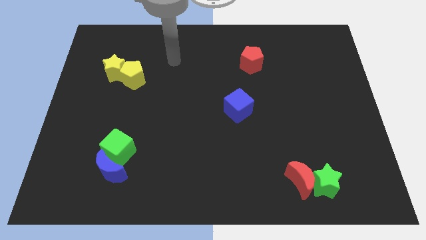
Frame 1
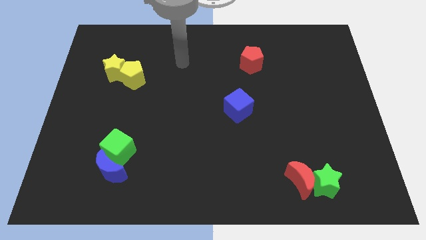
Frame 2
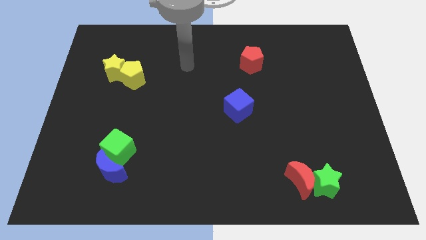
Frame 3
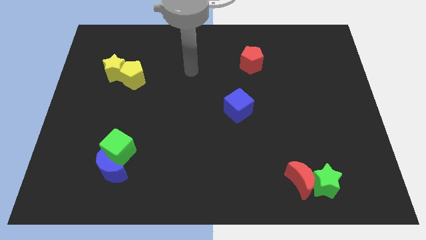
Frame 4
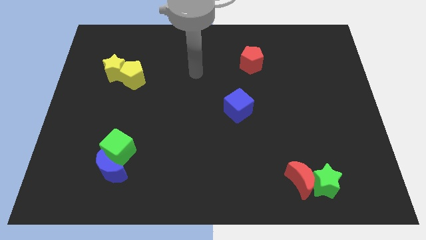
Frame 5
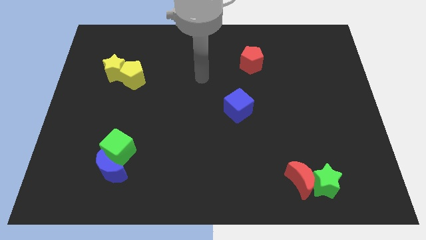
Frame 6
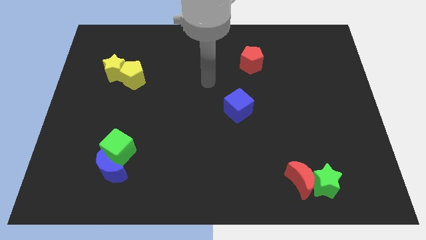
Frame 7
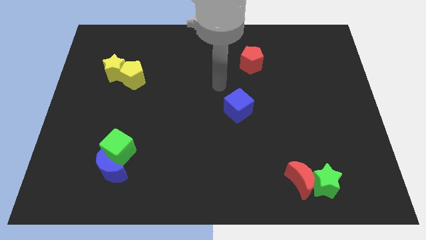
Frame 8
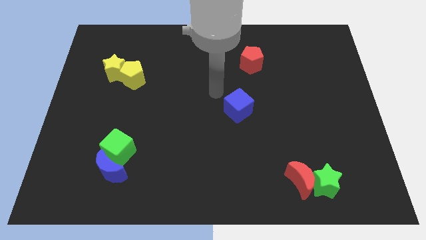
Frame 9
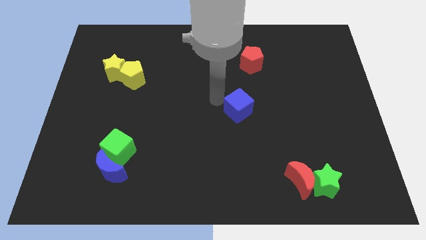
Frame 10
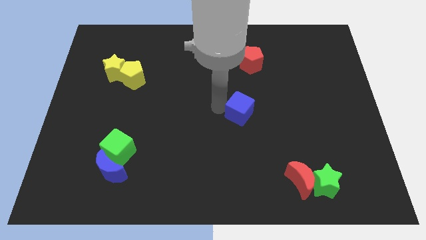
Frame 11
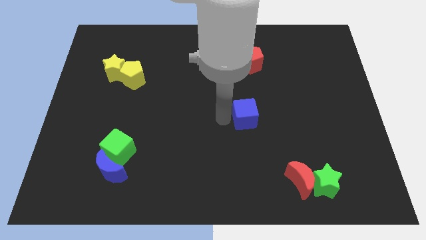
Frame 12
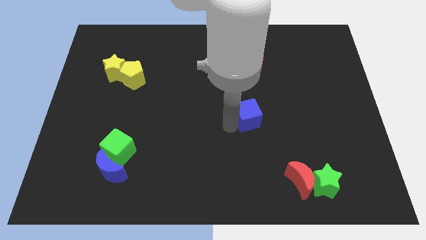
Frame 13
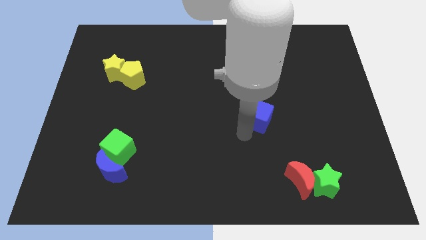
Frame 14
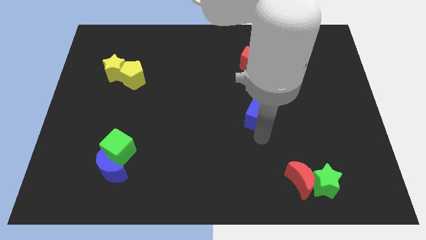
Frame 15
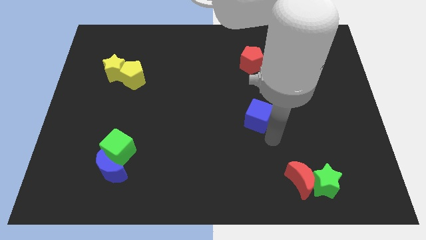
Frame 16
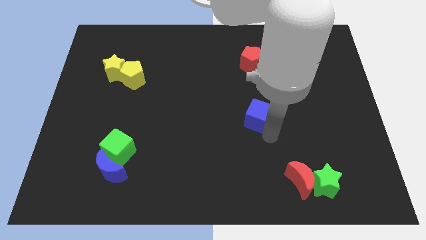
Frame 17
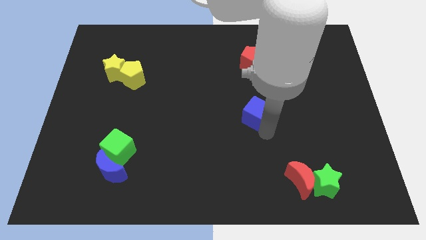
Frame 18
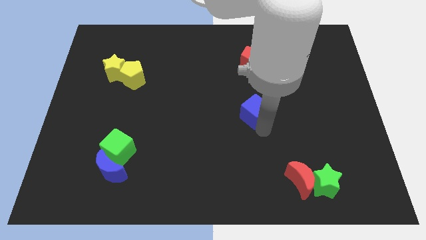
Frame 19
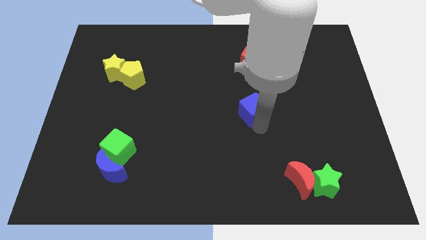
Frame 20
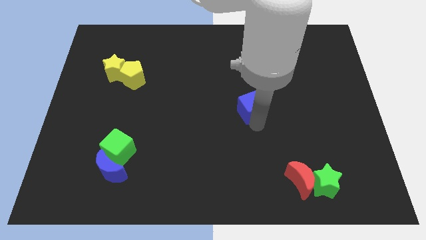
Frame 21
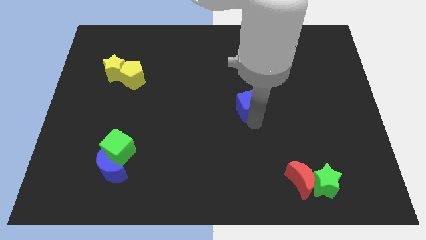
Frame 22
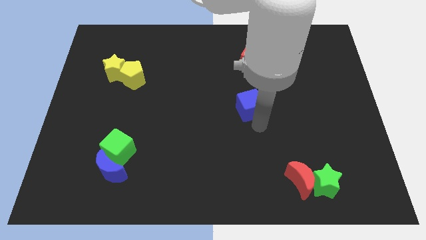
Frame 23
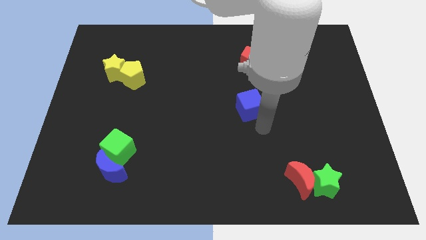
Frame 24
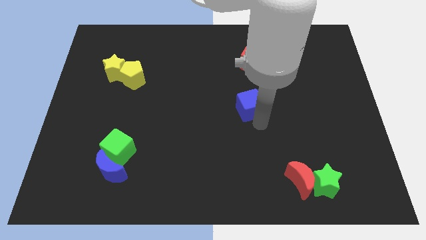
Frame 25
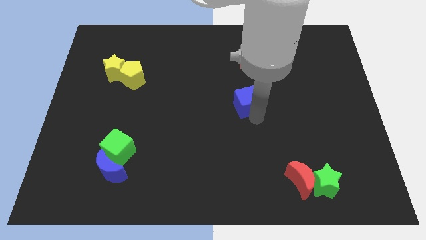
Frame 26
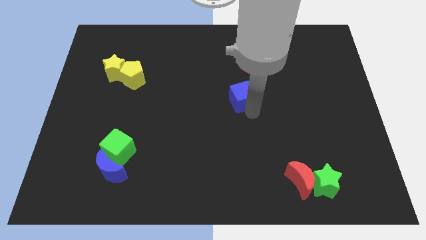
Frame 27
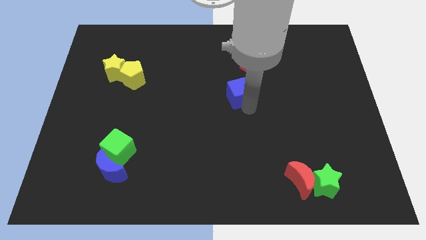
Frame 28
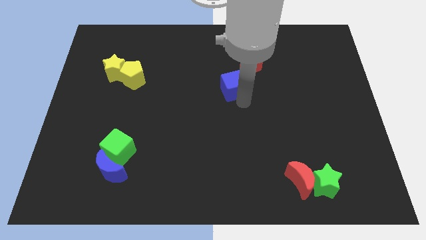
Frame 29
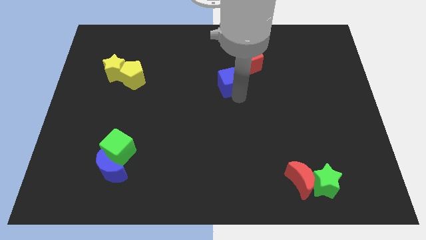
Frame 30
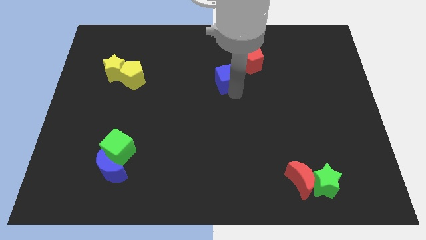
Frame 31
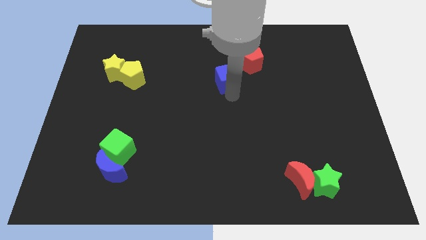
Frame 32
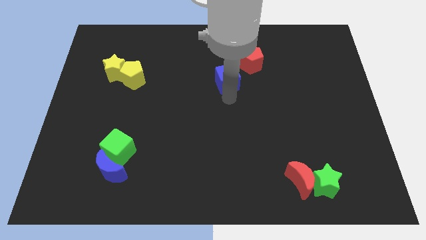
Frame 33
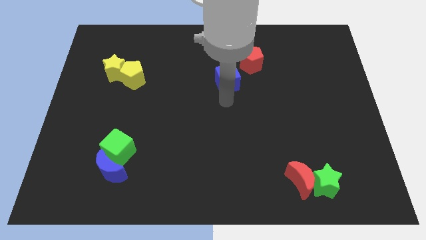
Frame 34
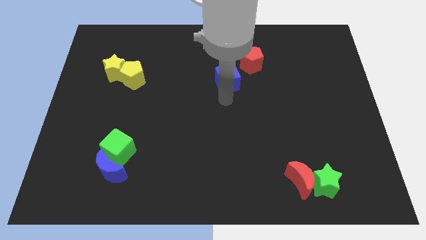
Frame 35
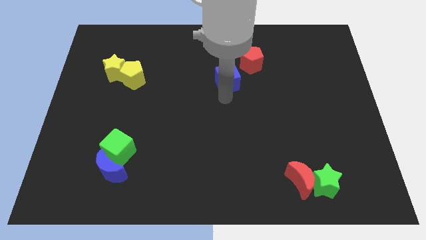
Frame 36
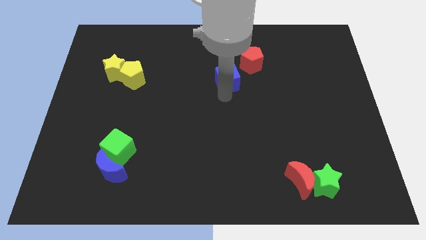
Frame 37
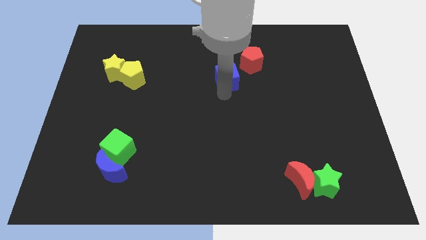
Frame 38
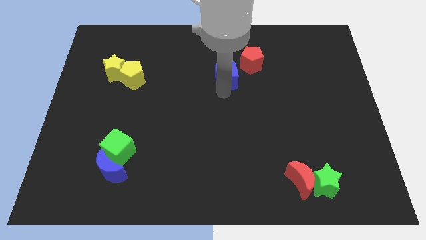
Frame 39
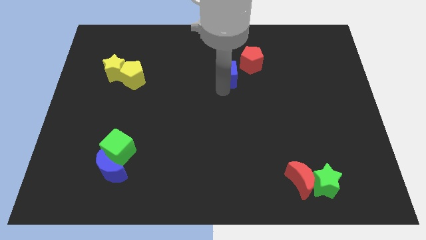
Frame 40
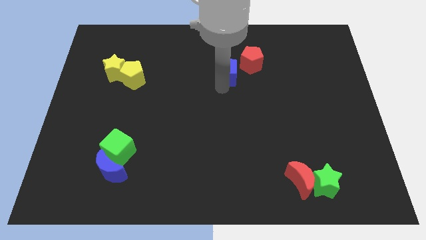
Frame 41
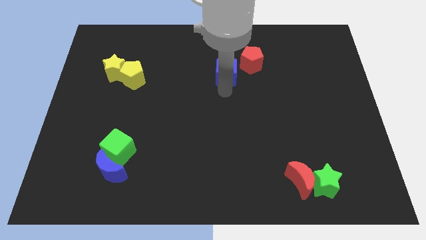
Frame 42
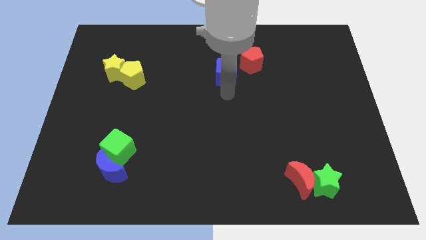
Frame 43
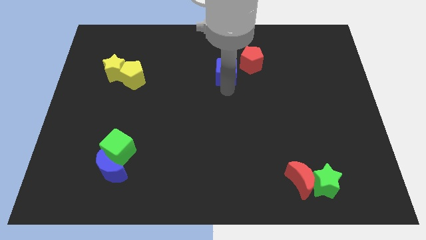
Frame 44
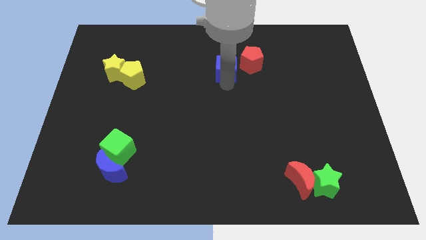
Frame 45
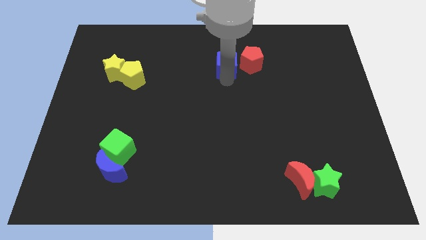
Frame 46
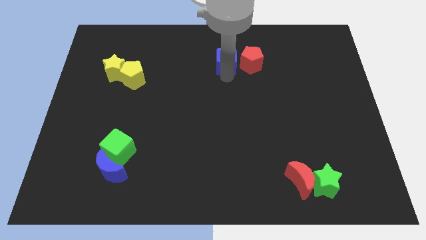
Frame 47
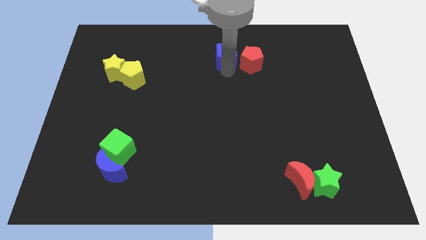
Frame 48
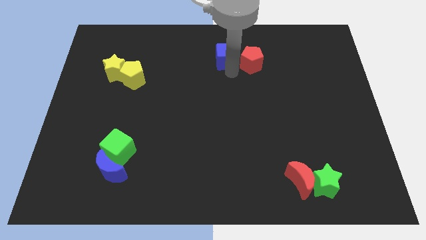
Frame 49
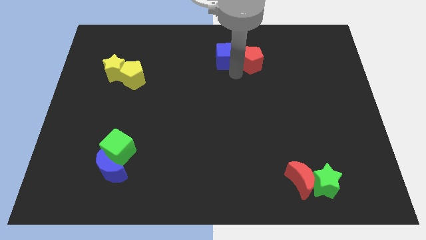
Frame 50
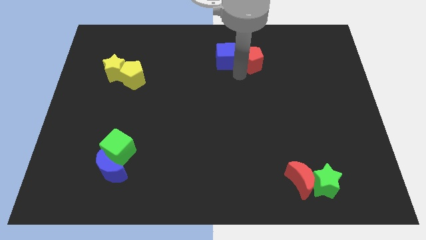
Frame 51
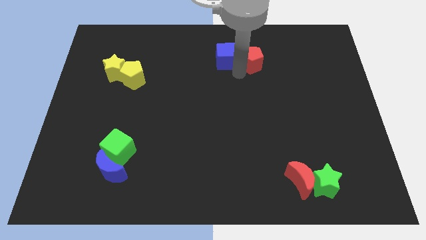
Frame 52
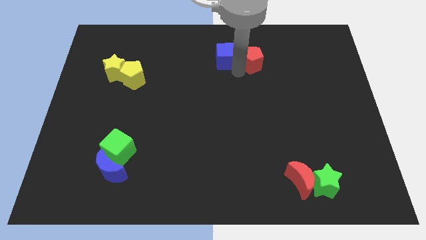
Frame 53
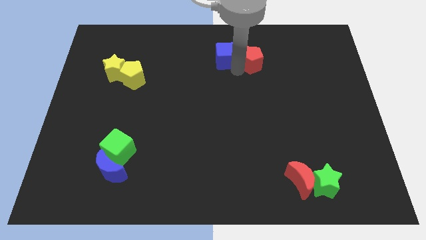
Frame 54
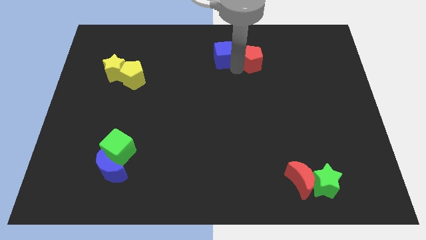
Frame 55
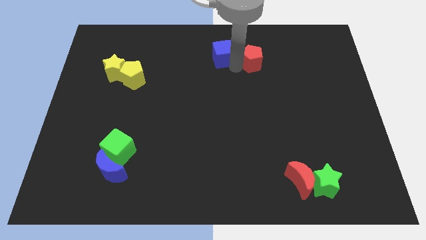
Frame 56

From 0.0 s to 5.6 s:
put the blue cube to the towards your base

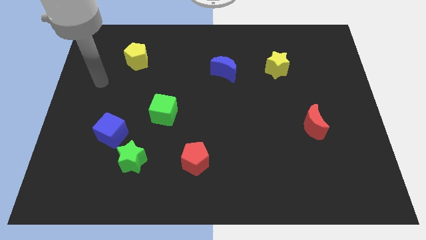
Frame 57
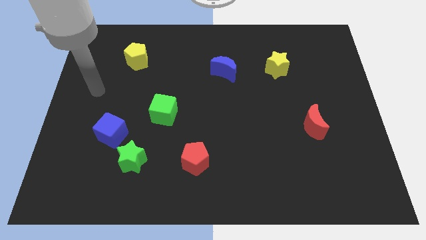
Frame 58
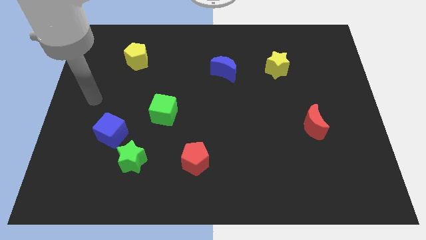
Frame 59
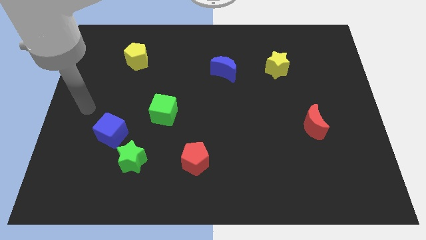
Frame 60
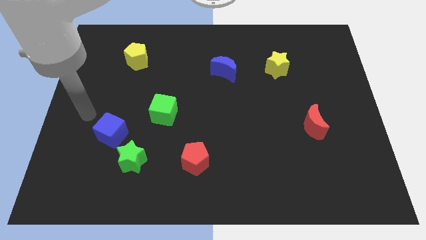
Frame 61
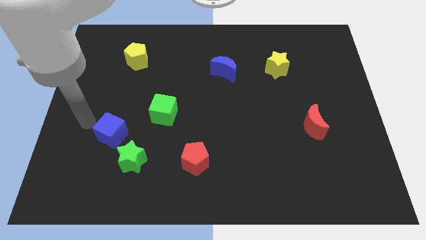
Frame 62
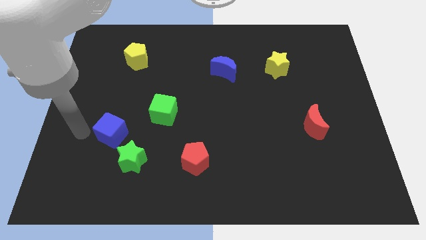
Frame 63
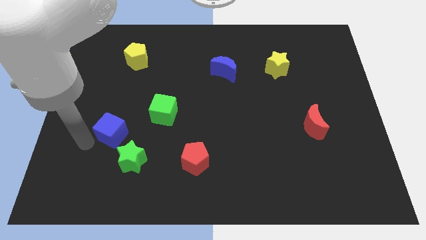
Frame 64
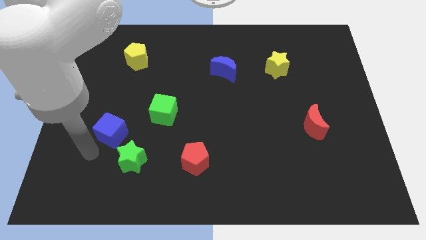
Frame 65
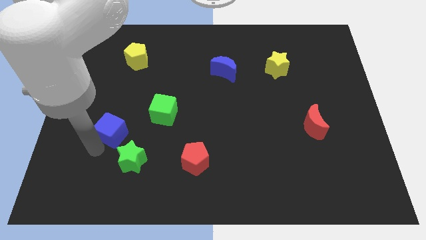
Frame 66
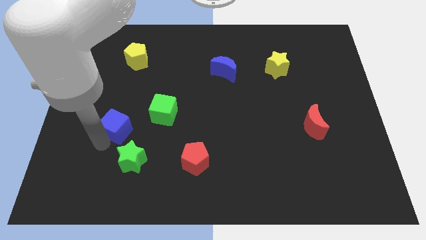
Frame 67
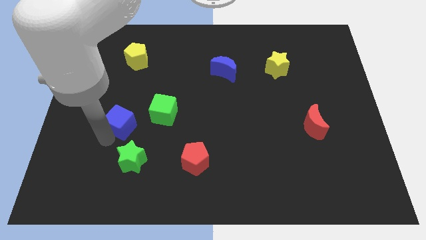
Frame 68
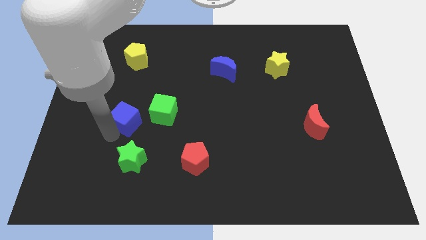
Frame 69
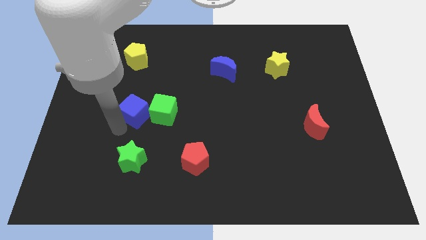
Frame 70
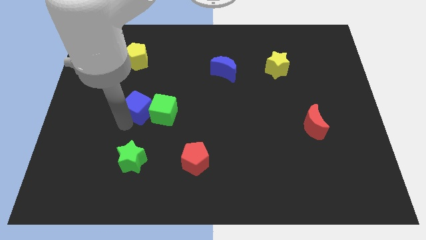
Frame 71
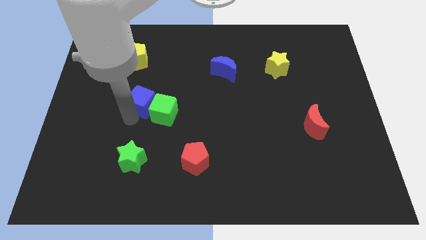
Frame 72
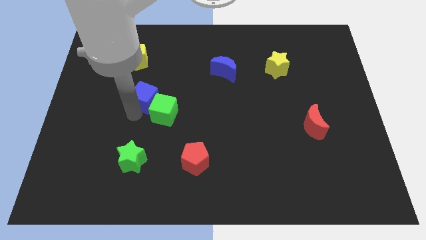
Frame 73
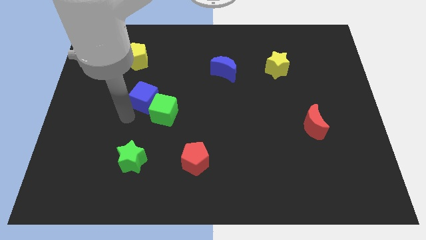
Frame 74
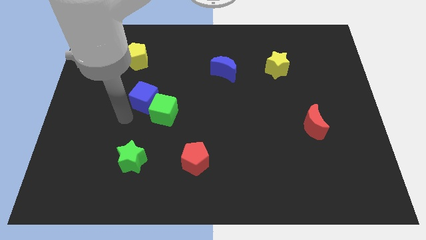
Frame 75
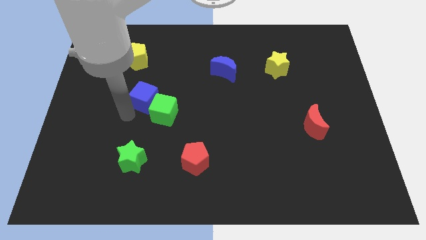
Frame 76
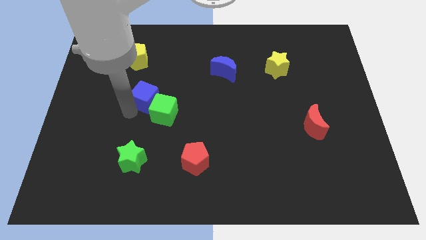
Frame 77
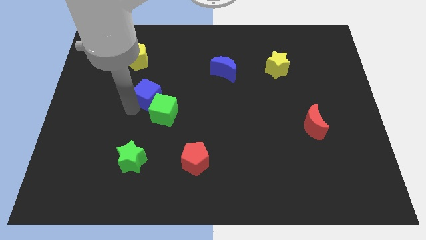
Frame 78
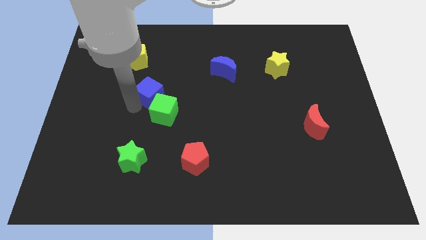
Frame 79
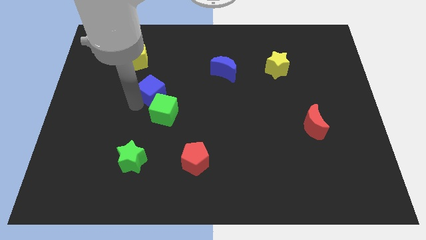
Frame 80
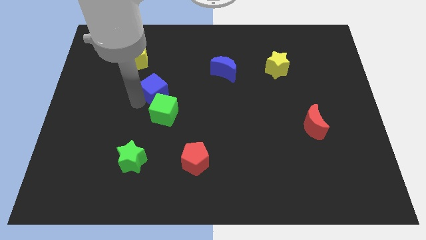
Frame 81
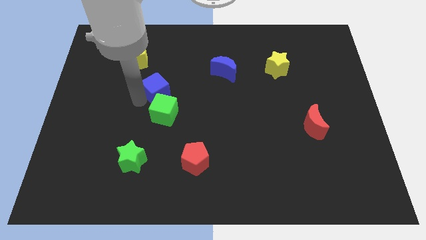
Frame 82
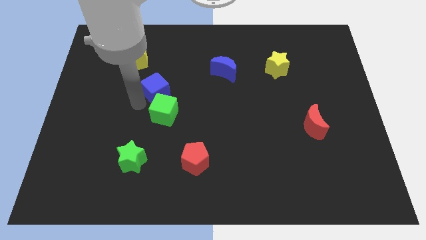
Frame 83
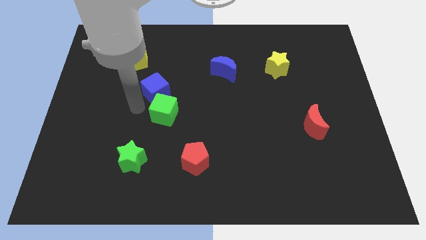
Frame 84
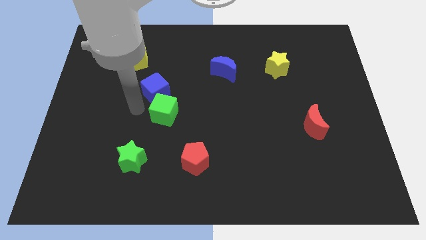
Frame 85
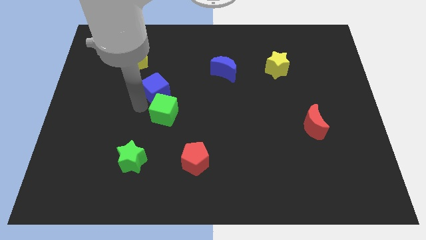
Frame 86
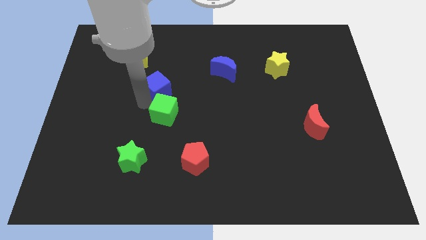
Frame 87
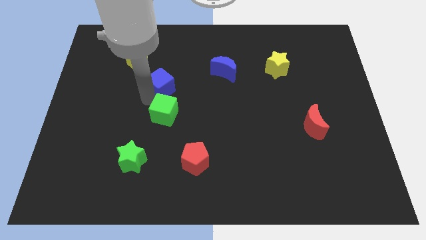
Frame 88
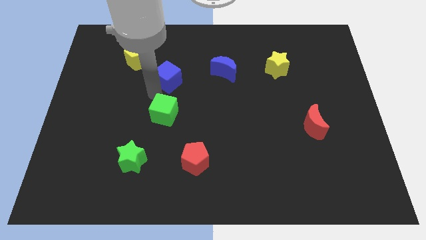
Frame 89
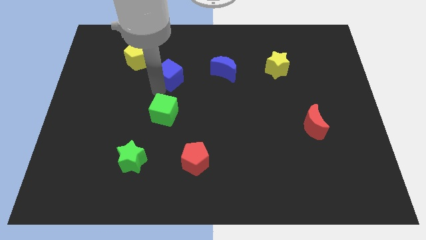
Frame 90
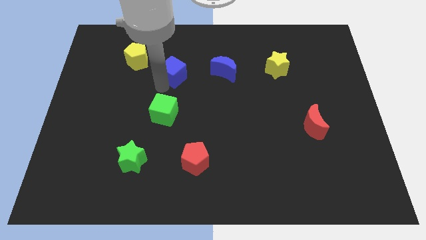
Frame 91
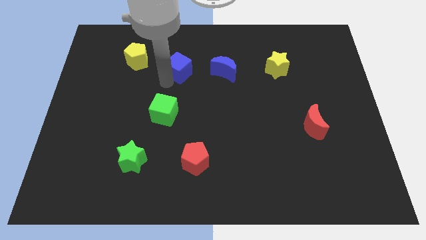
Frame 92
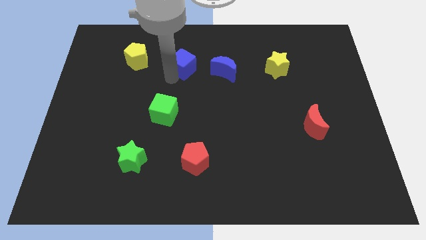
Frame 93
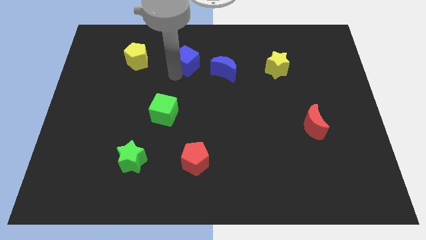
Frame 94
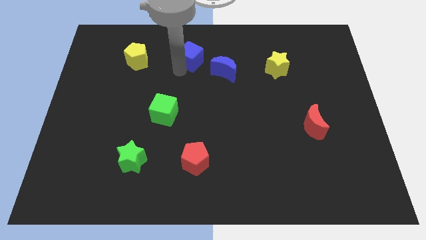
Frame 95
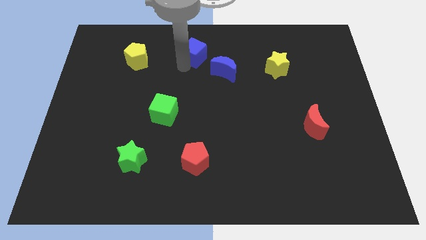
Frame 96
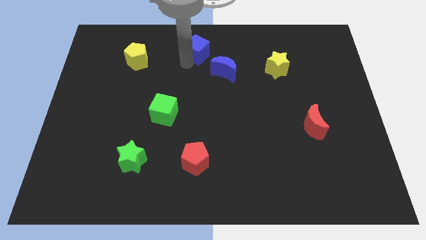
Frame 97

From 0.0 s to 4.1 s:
slide the blue cube to the top side
